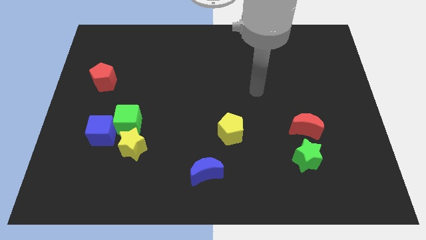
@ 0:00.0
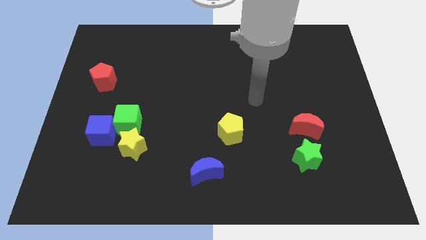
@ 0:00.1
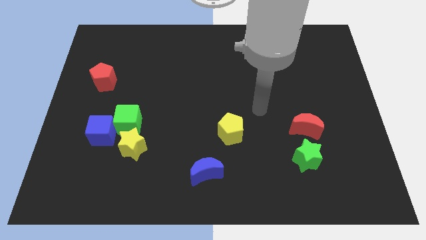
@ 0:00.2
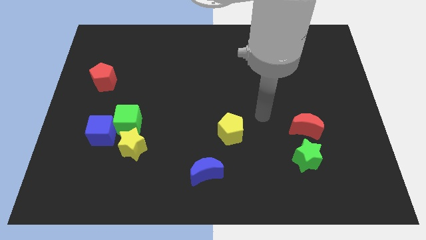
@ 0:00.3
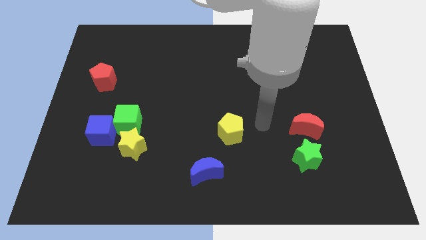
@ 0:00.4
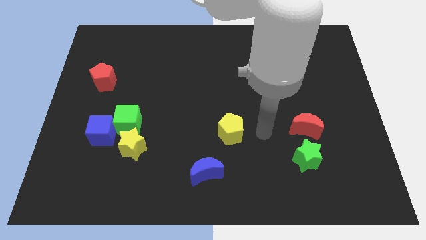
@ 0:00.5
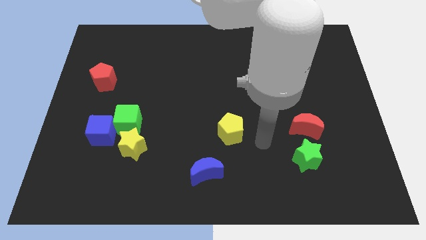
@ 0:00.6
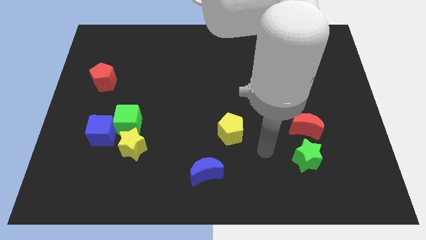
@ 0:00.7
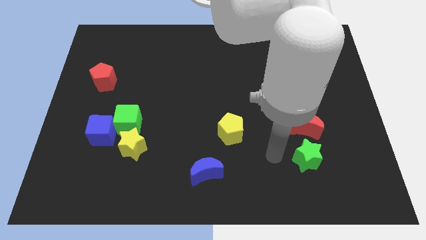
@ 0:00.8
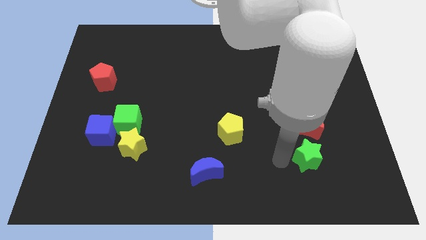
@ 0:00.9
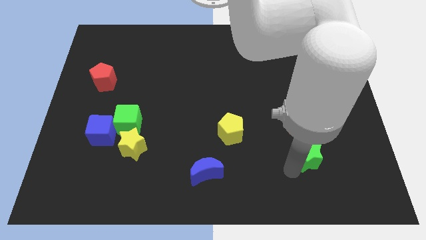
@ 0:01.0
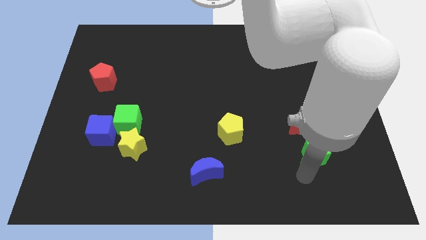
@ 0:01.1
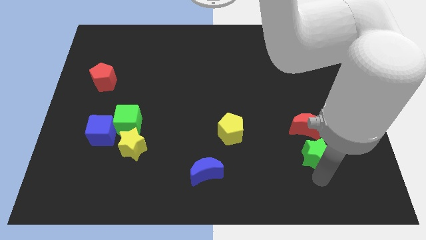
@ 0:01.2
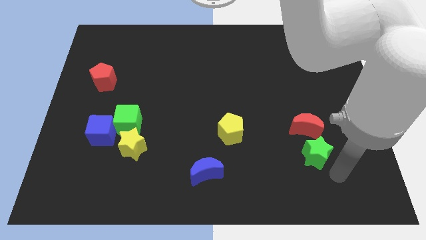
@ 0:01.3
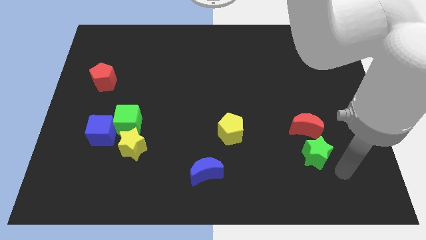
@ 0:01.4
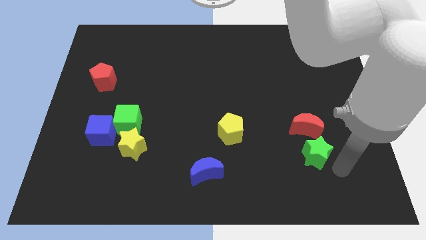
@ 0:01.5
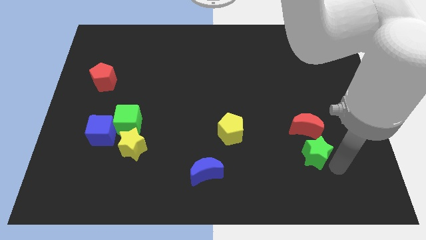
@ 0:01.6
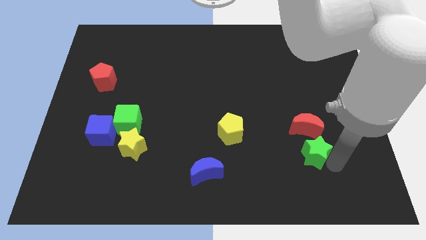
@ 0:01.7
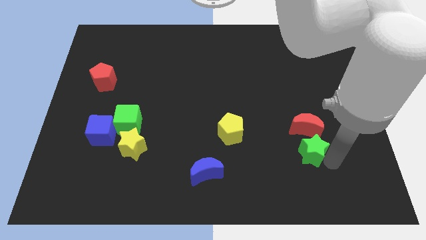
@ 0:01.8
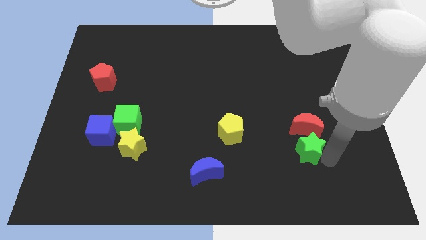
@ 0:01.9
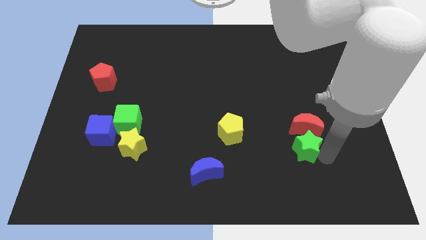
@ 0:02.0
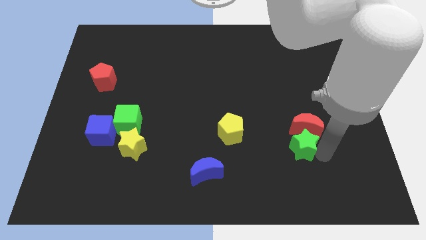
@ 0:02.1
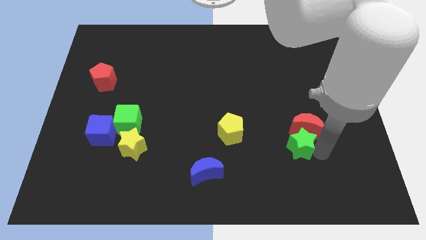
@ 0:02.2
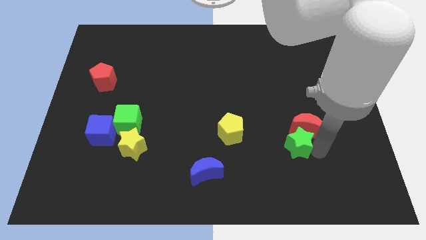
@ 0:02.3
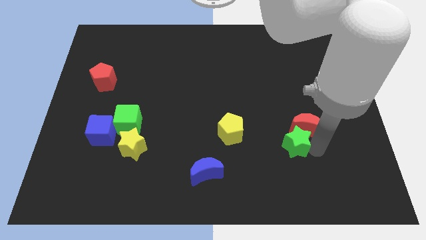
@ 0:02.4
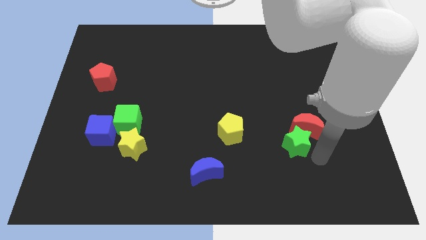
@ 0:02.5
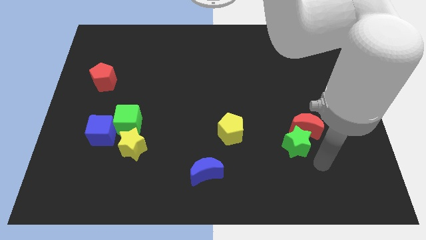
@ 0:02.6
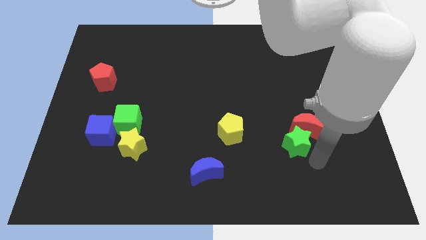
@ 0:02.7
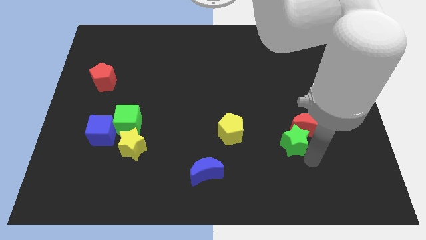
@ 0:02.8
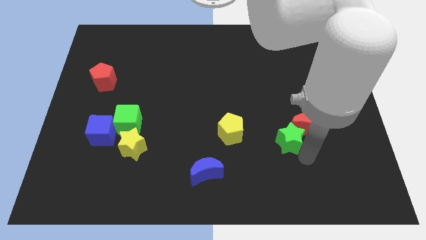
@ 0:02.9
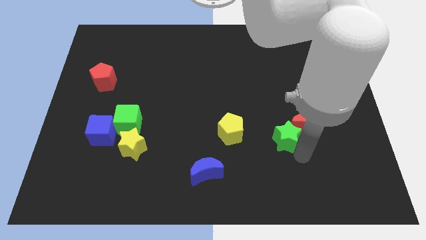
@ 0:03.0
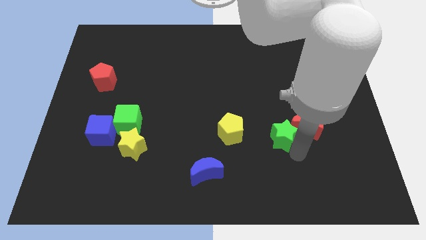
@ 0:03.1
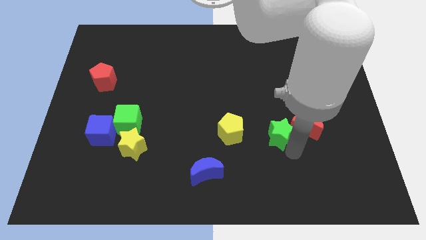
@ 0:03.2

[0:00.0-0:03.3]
push the green star somewhat up and to the left

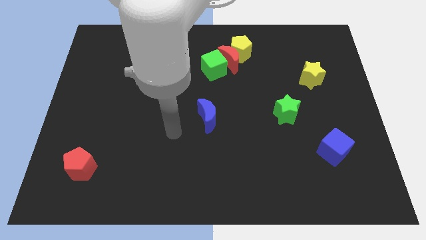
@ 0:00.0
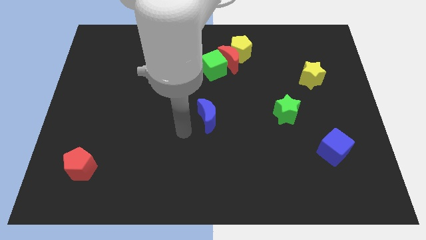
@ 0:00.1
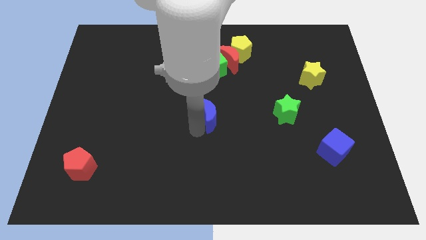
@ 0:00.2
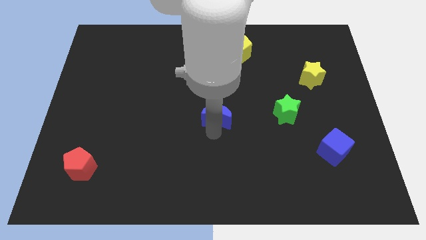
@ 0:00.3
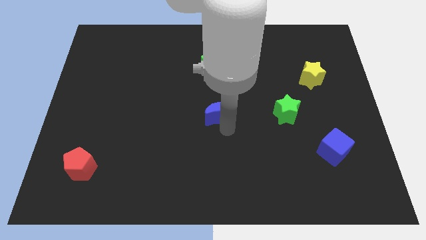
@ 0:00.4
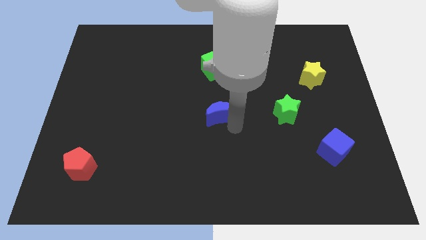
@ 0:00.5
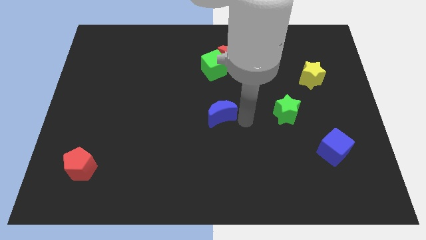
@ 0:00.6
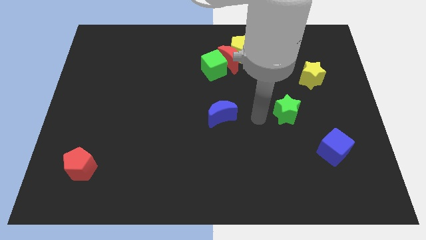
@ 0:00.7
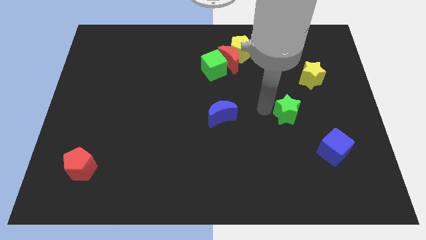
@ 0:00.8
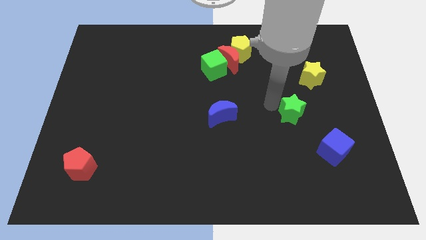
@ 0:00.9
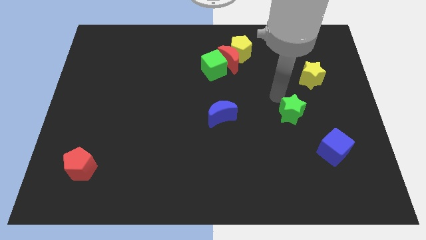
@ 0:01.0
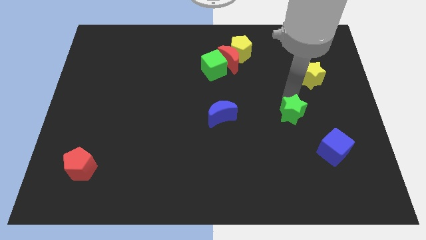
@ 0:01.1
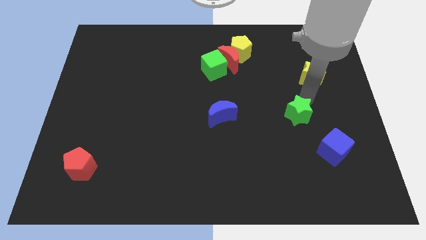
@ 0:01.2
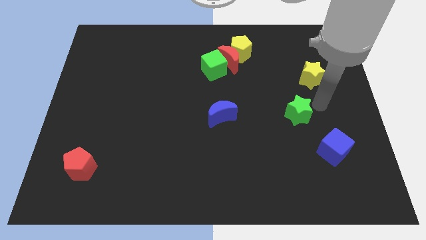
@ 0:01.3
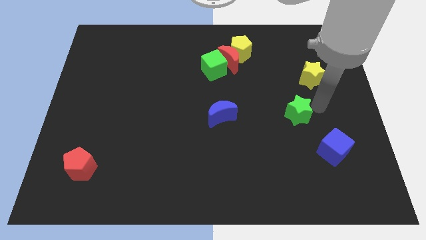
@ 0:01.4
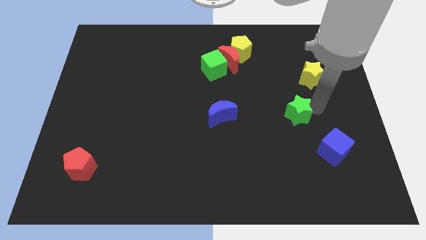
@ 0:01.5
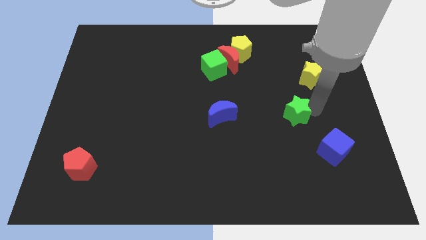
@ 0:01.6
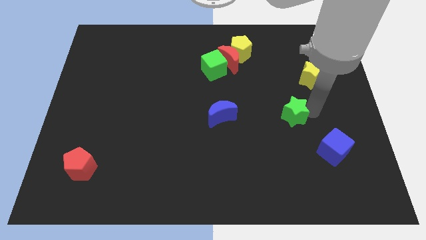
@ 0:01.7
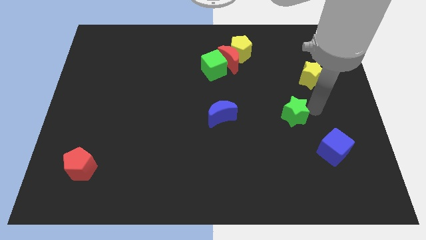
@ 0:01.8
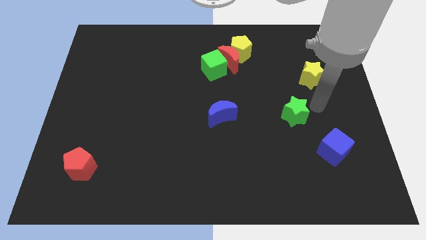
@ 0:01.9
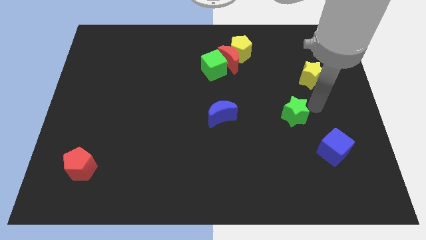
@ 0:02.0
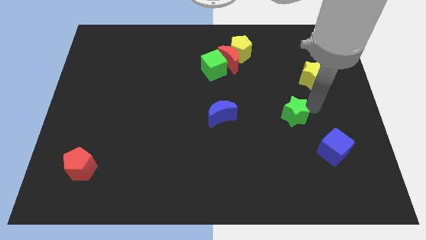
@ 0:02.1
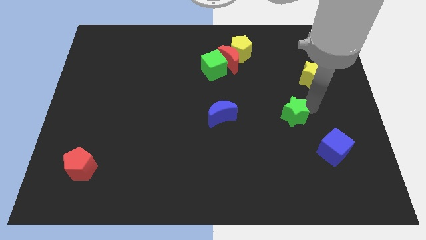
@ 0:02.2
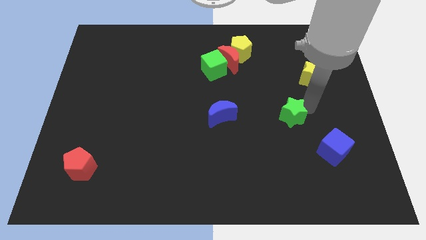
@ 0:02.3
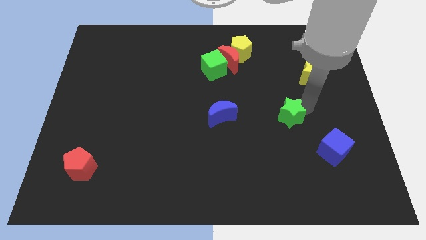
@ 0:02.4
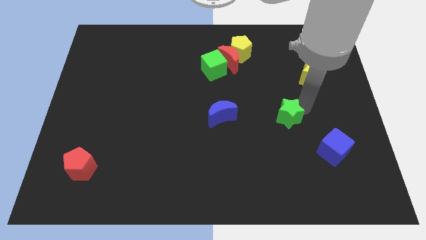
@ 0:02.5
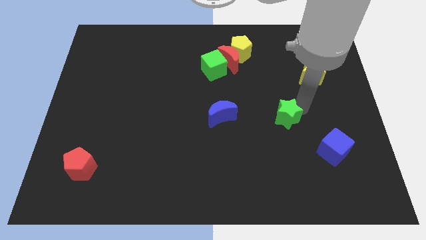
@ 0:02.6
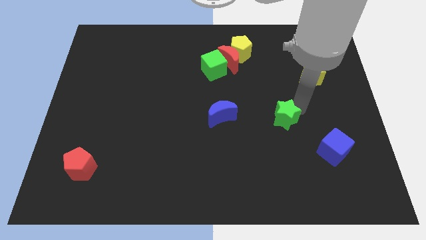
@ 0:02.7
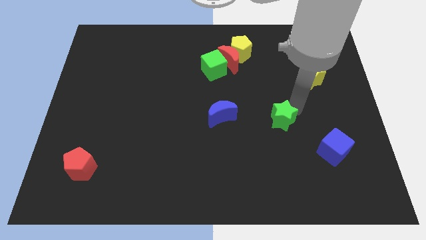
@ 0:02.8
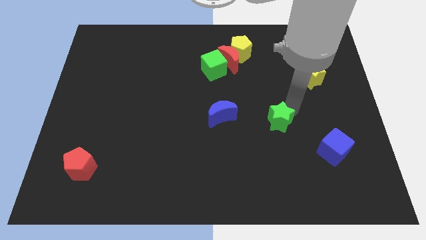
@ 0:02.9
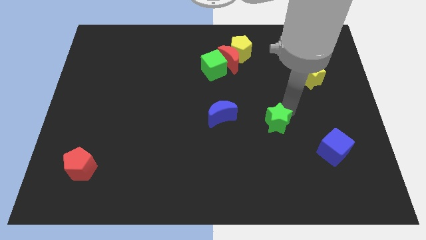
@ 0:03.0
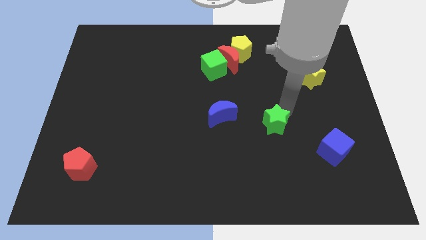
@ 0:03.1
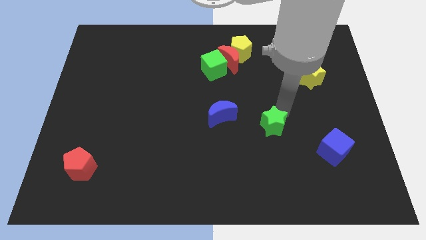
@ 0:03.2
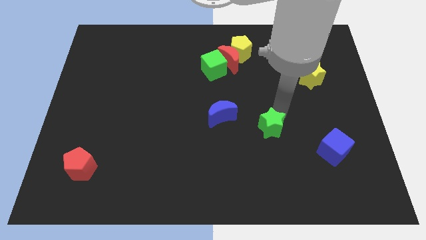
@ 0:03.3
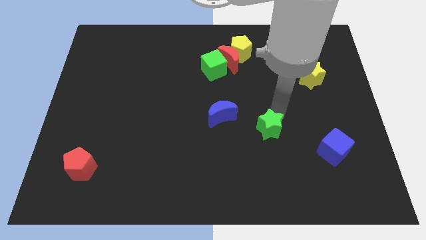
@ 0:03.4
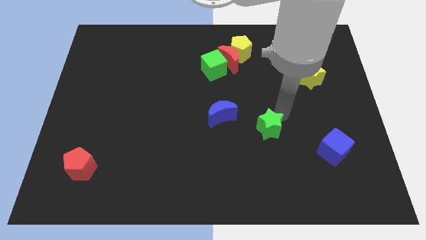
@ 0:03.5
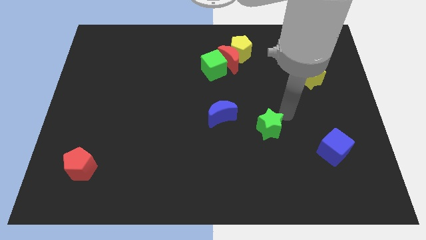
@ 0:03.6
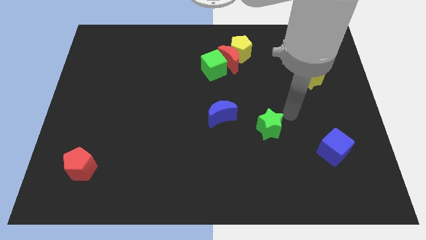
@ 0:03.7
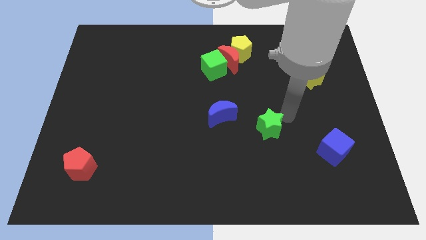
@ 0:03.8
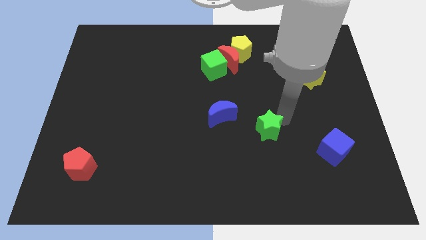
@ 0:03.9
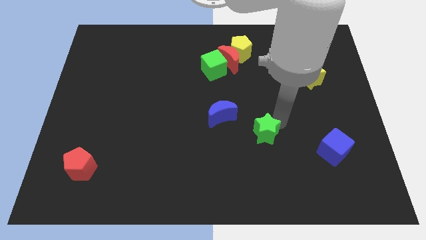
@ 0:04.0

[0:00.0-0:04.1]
move the green star downwards and then left slightly

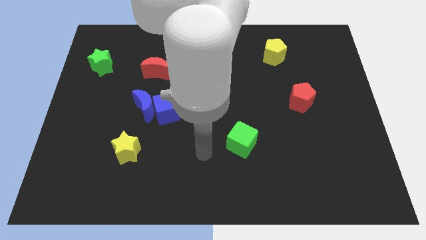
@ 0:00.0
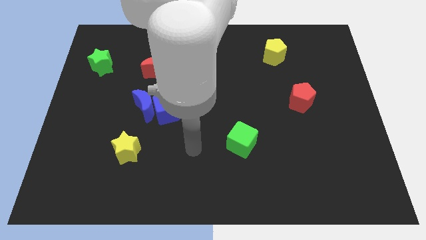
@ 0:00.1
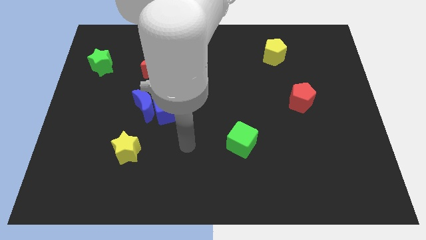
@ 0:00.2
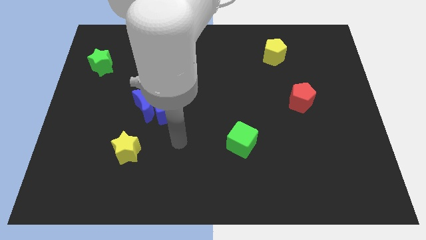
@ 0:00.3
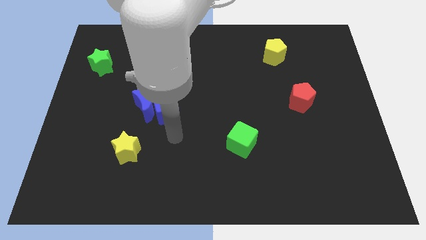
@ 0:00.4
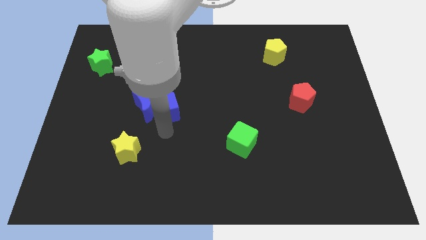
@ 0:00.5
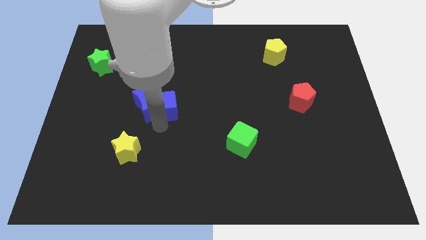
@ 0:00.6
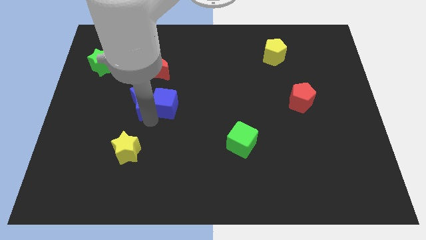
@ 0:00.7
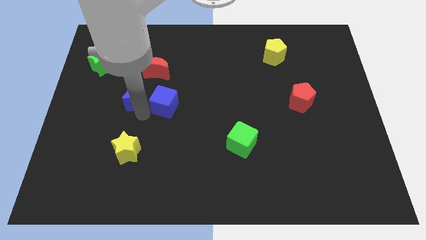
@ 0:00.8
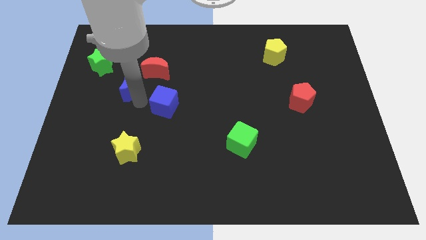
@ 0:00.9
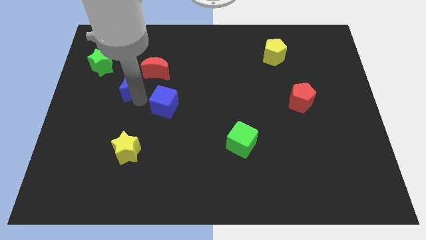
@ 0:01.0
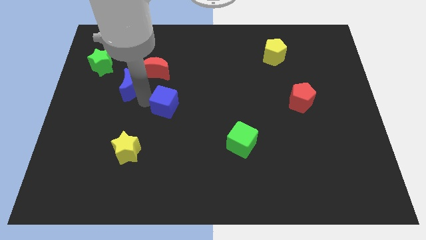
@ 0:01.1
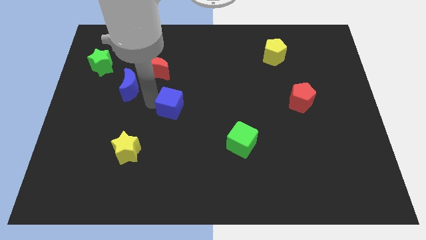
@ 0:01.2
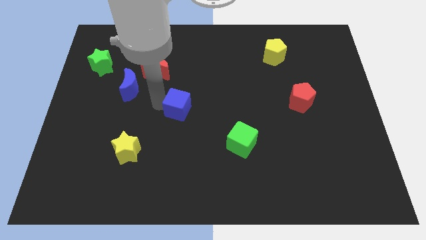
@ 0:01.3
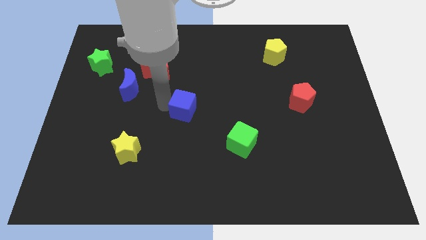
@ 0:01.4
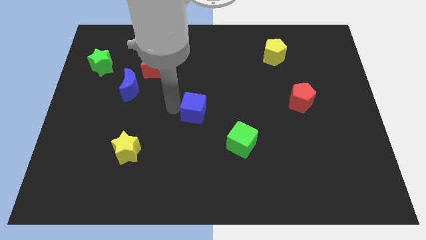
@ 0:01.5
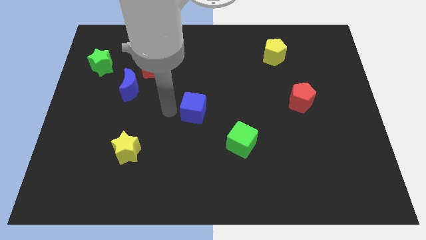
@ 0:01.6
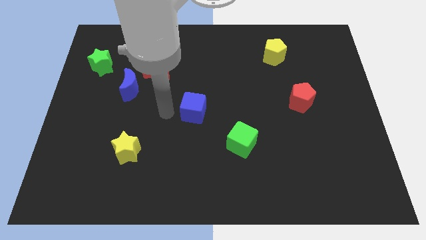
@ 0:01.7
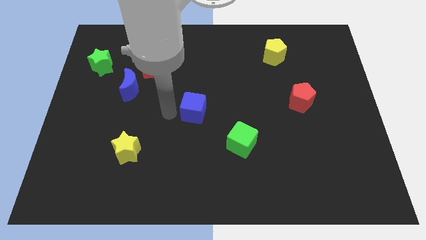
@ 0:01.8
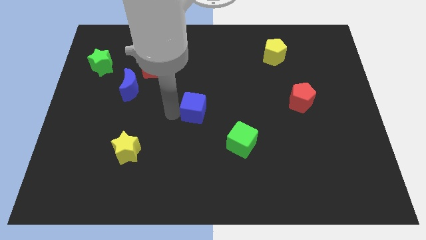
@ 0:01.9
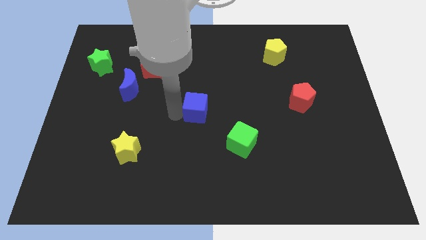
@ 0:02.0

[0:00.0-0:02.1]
move the blue cube a little right
